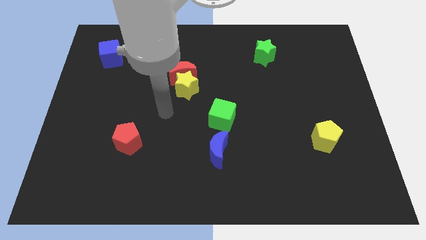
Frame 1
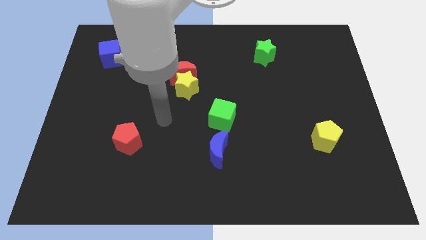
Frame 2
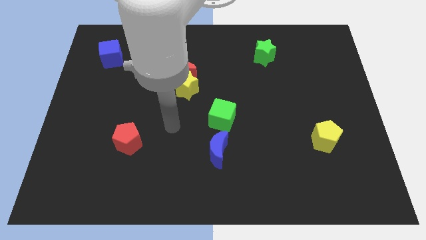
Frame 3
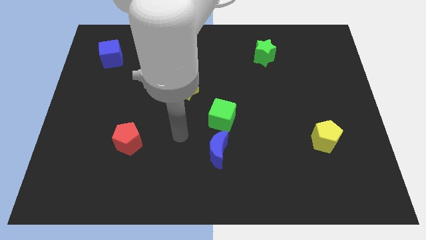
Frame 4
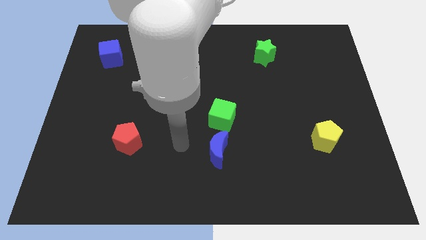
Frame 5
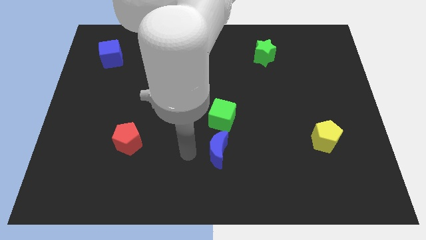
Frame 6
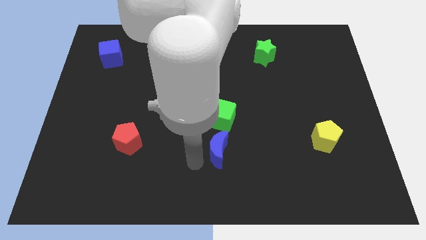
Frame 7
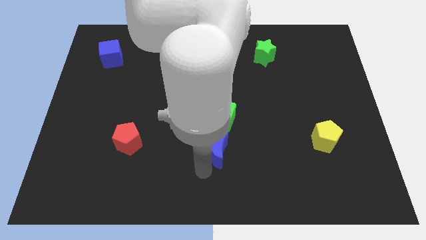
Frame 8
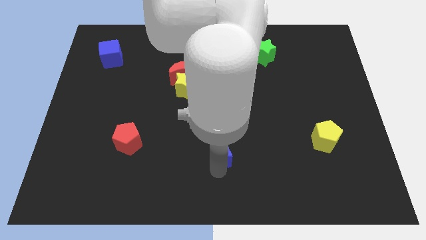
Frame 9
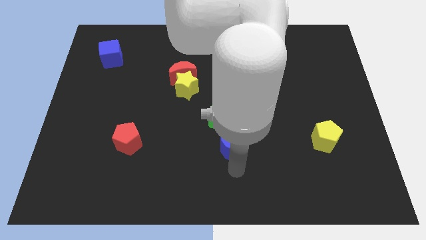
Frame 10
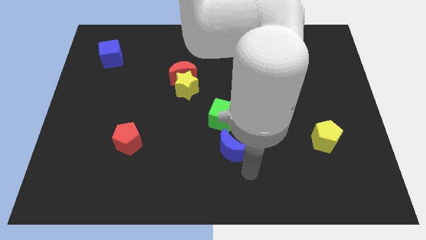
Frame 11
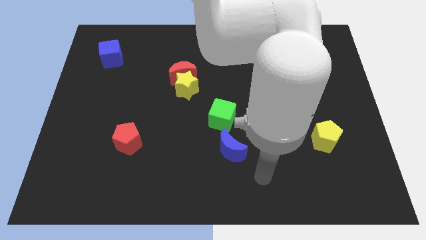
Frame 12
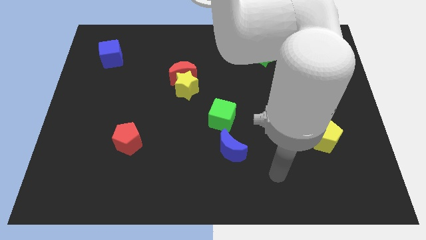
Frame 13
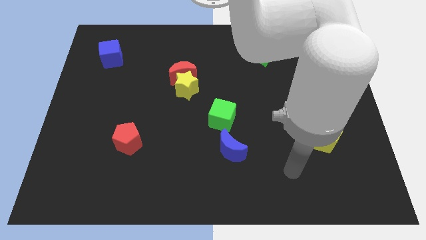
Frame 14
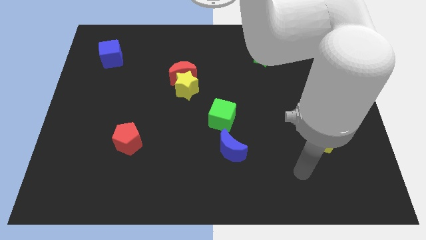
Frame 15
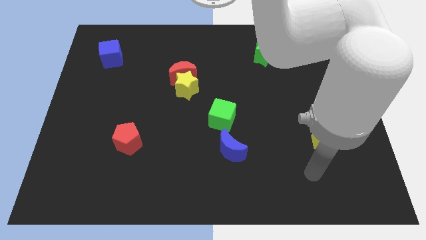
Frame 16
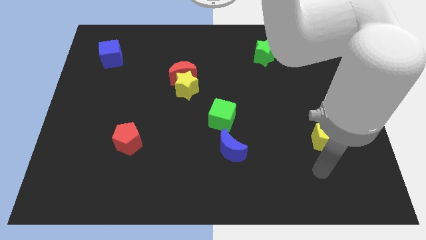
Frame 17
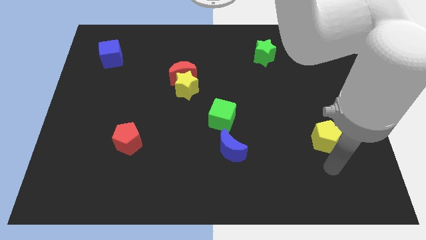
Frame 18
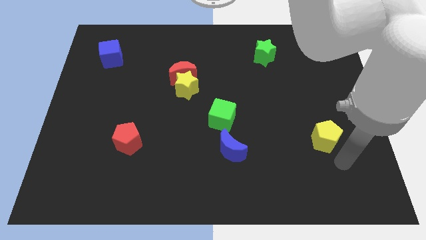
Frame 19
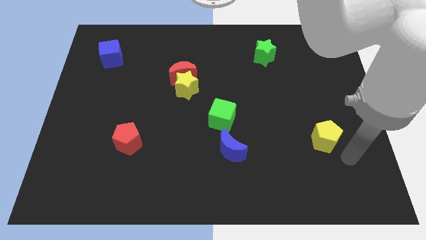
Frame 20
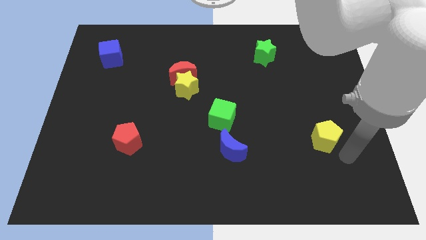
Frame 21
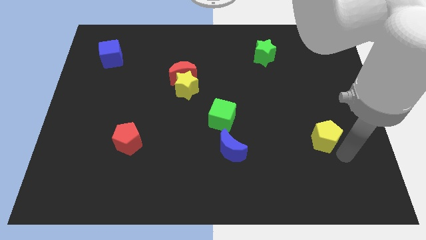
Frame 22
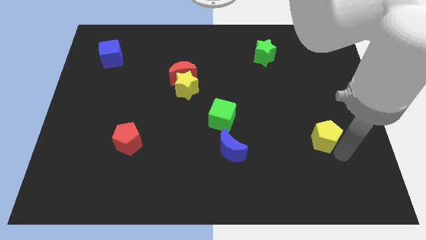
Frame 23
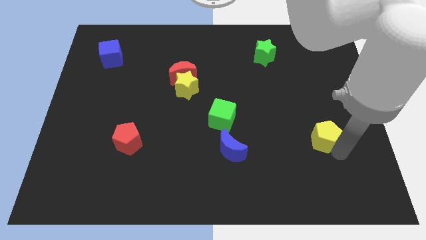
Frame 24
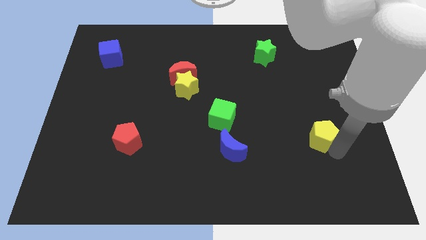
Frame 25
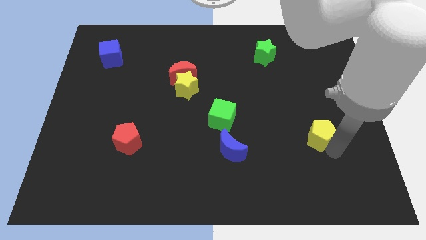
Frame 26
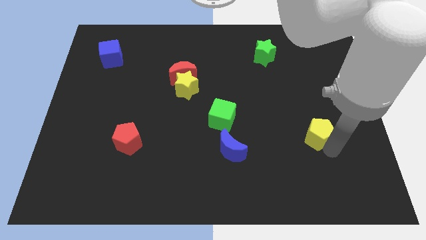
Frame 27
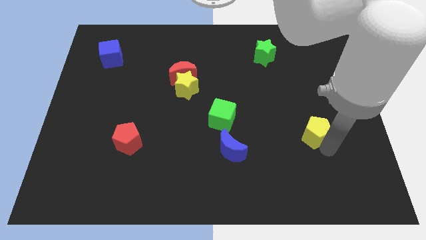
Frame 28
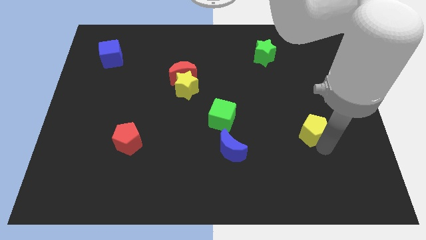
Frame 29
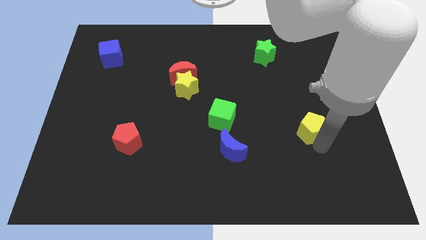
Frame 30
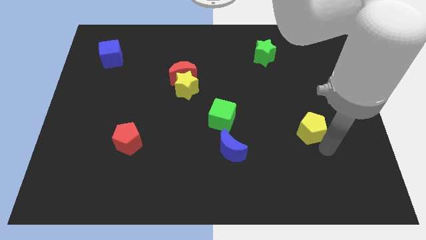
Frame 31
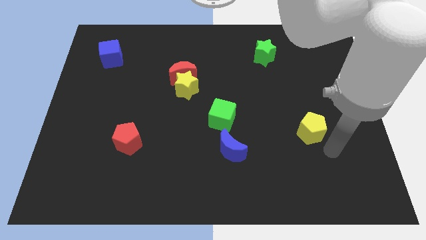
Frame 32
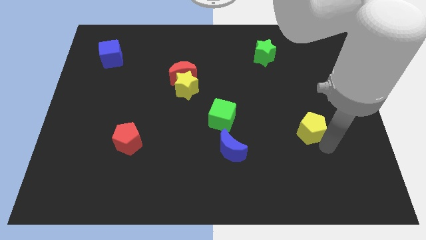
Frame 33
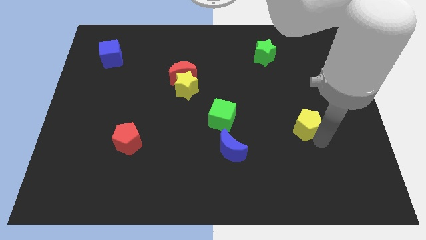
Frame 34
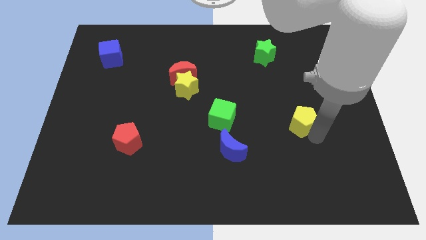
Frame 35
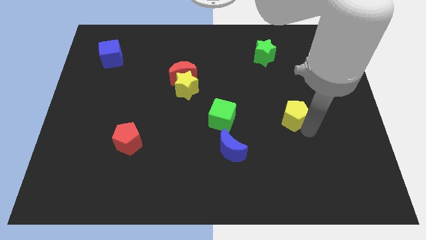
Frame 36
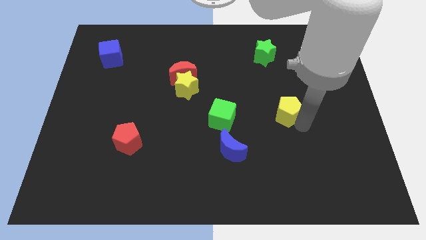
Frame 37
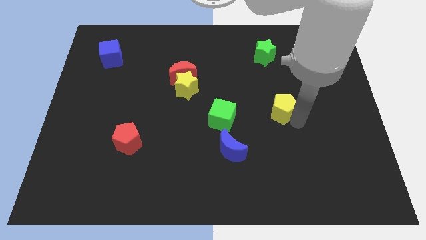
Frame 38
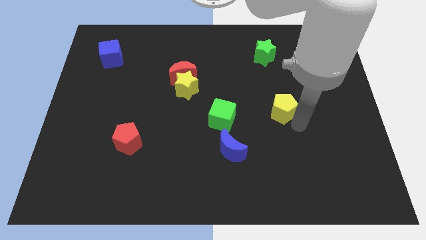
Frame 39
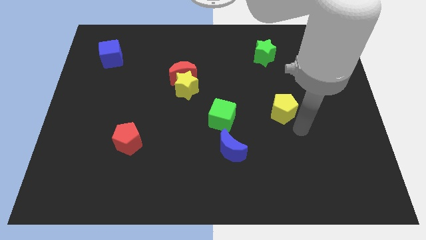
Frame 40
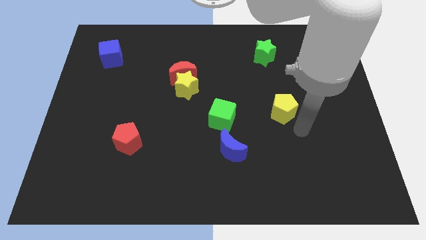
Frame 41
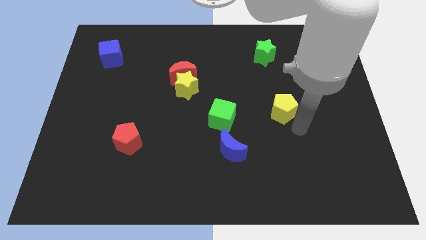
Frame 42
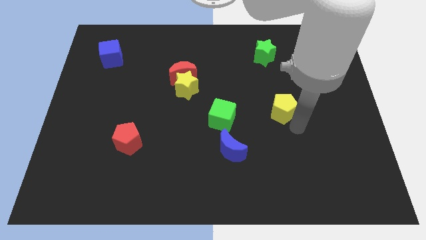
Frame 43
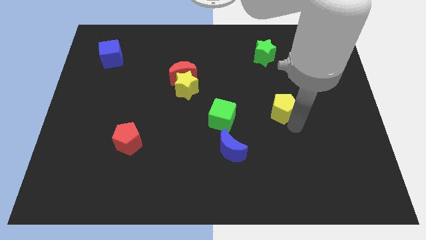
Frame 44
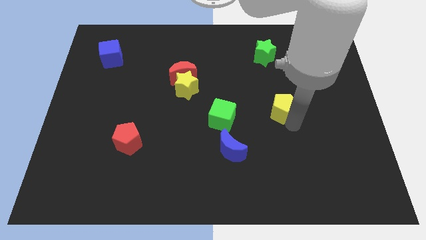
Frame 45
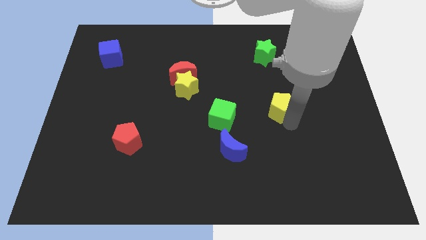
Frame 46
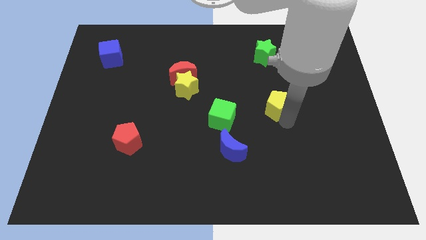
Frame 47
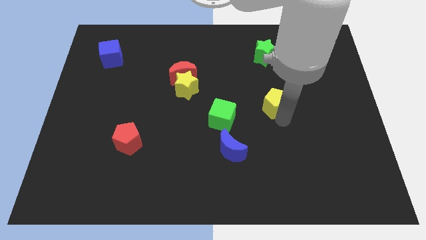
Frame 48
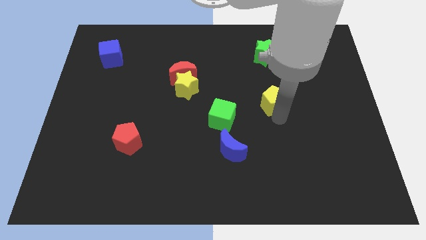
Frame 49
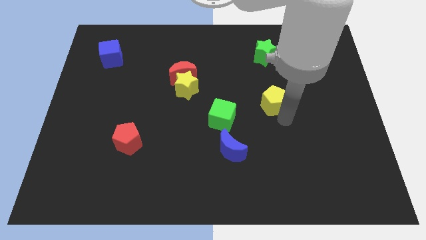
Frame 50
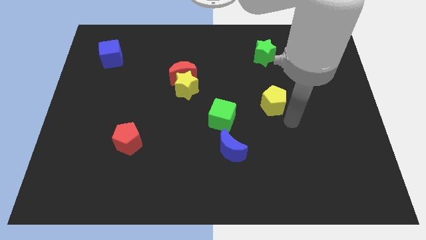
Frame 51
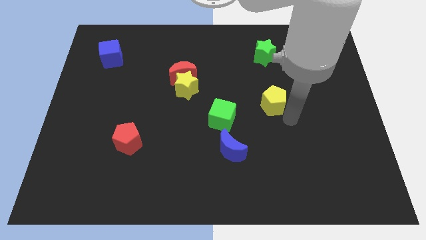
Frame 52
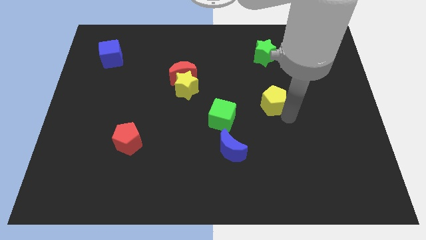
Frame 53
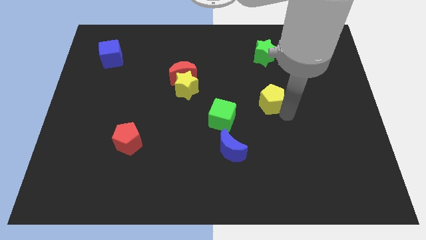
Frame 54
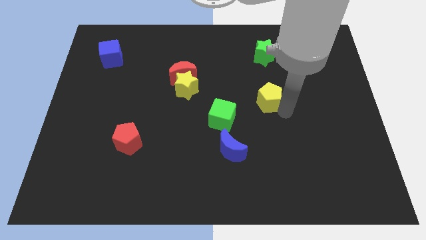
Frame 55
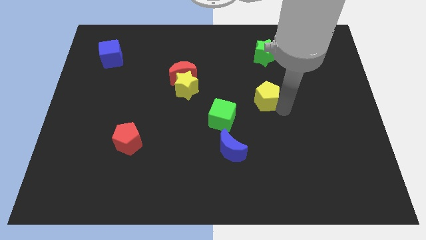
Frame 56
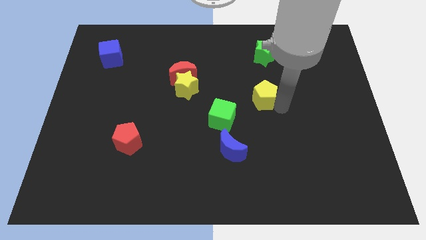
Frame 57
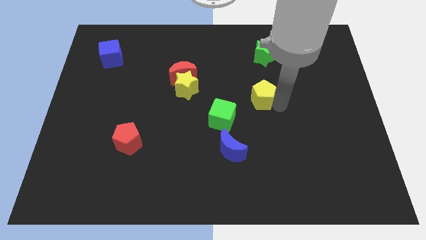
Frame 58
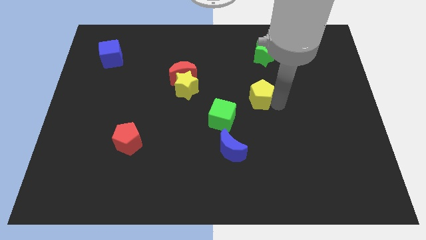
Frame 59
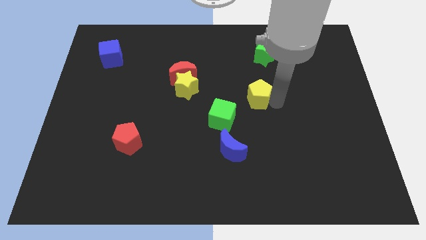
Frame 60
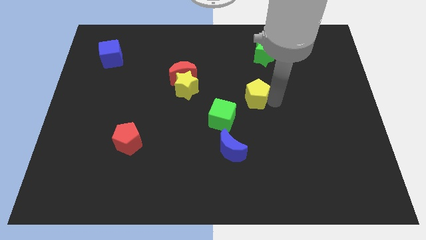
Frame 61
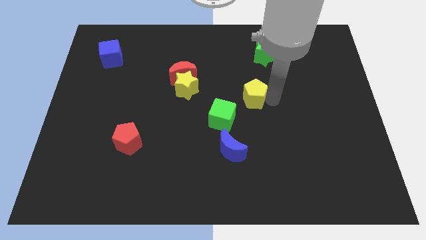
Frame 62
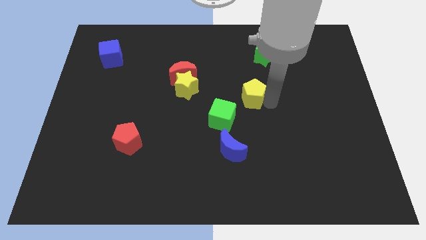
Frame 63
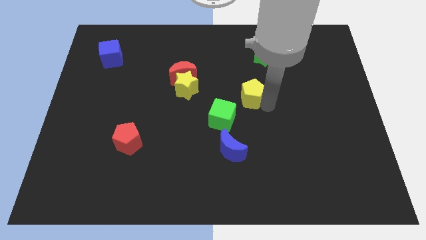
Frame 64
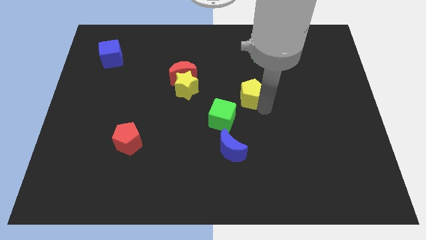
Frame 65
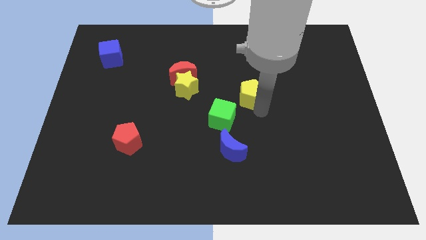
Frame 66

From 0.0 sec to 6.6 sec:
slide the yellow pentagon upwards and then left

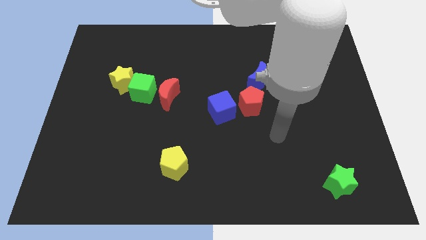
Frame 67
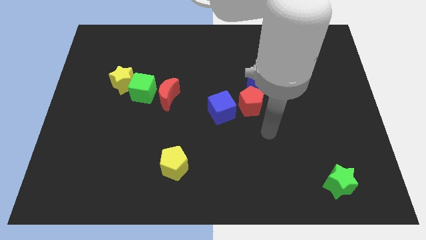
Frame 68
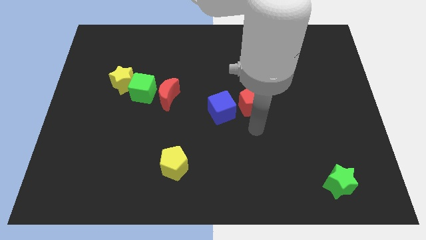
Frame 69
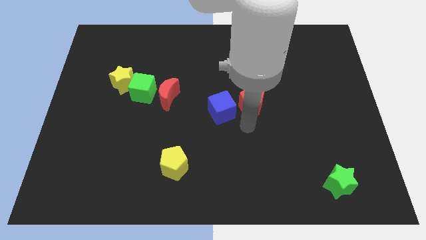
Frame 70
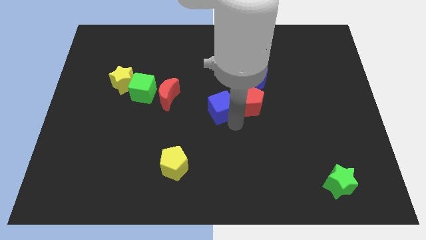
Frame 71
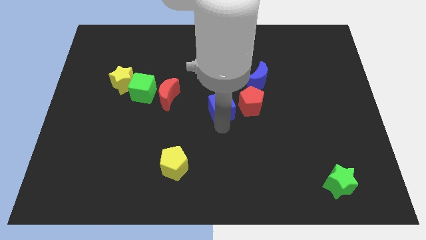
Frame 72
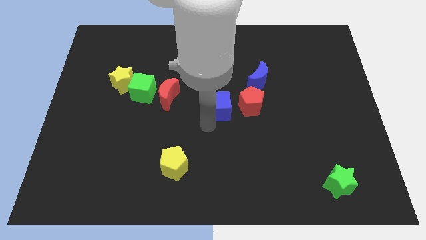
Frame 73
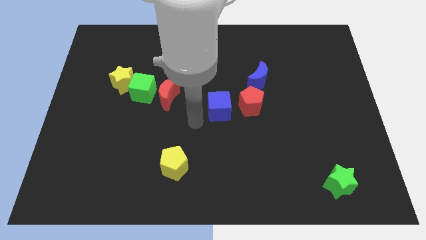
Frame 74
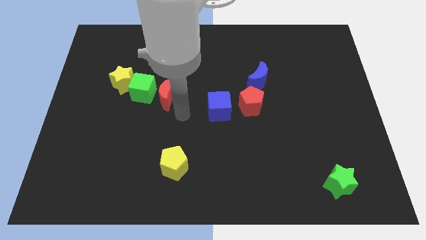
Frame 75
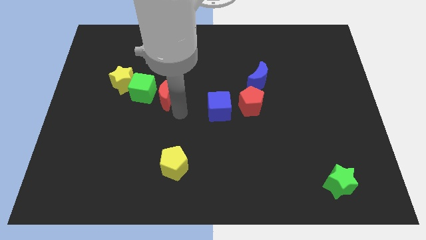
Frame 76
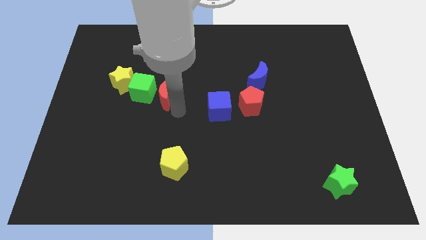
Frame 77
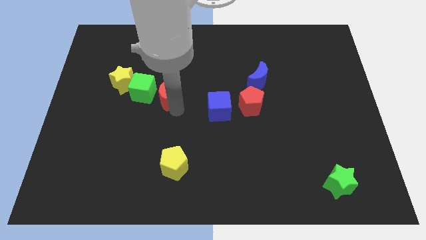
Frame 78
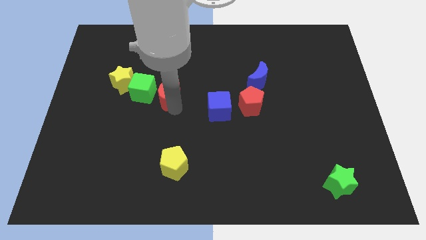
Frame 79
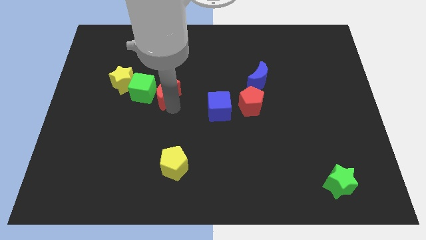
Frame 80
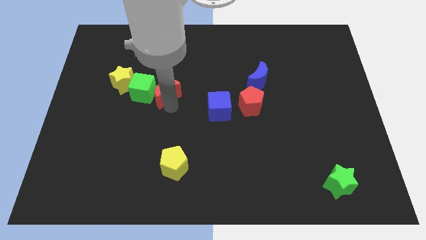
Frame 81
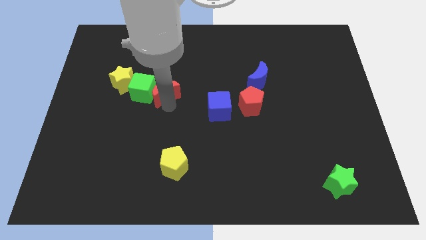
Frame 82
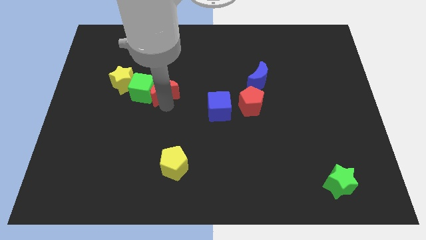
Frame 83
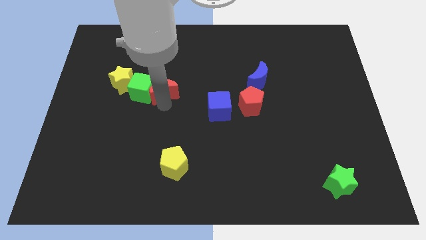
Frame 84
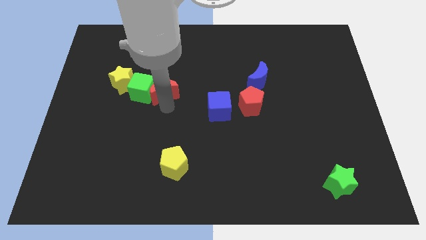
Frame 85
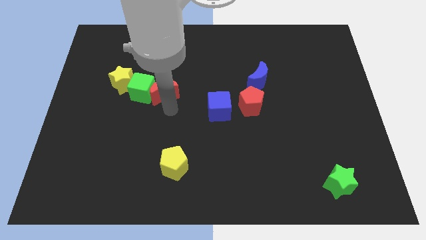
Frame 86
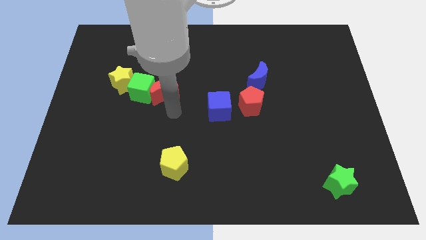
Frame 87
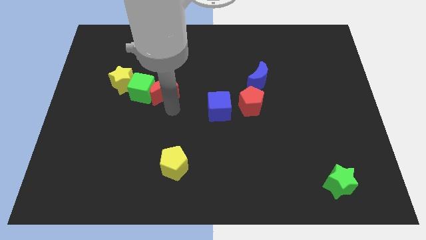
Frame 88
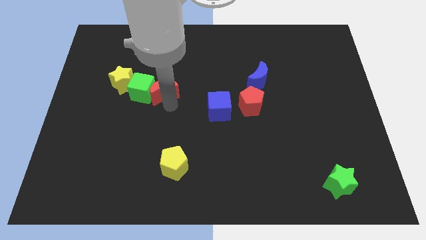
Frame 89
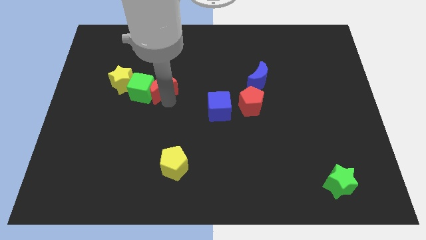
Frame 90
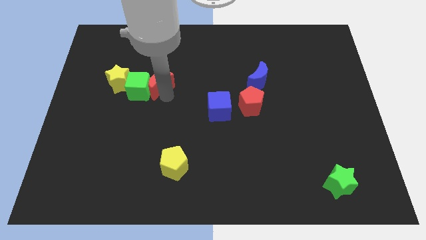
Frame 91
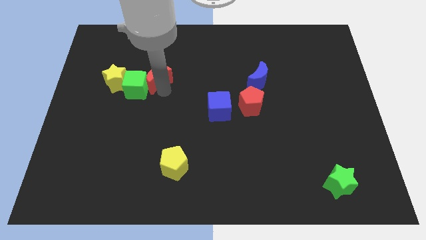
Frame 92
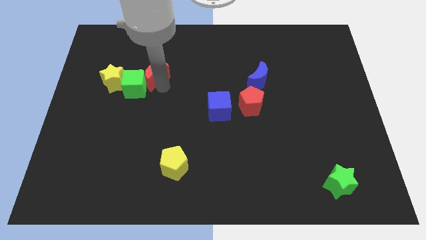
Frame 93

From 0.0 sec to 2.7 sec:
slide the red moon somewhat upwards and to the left diagonally
